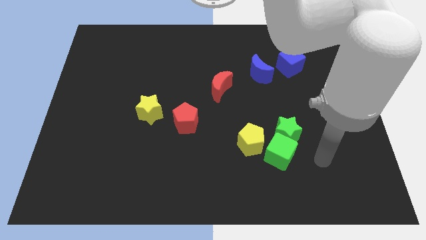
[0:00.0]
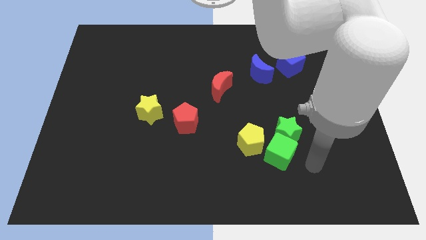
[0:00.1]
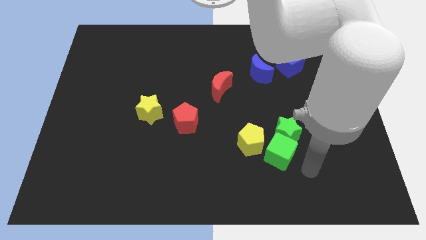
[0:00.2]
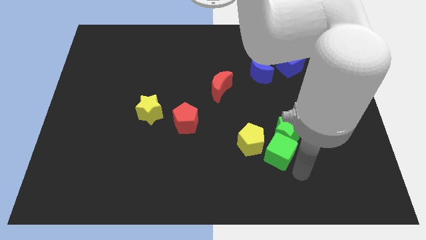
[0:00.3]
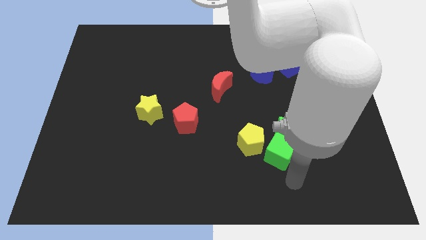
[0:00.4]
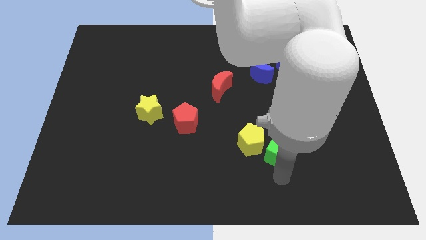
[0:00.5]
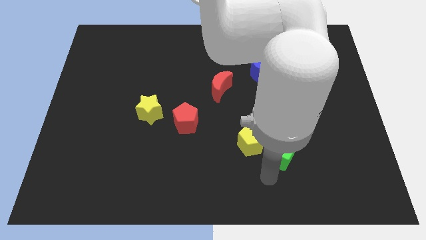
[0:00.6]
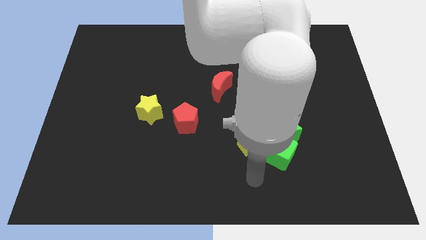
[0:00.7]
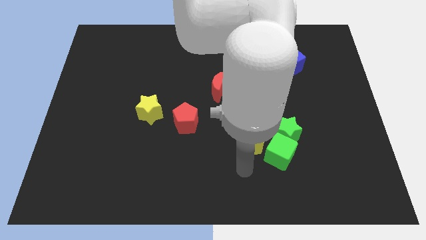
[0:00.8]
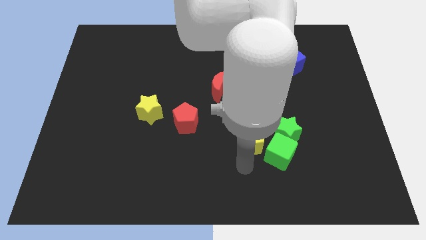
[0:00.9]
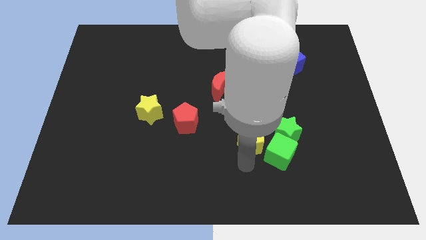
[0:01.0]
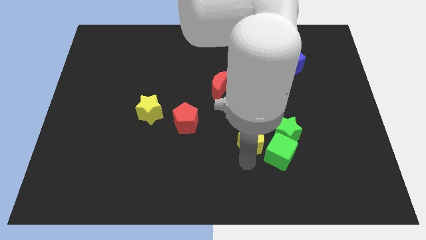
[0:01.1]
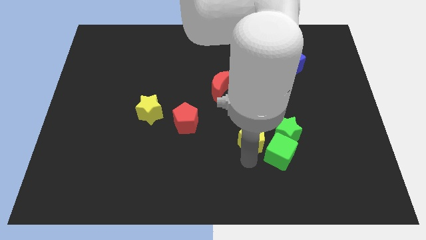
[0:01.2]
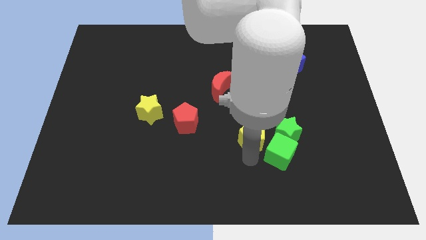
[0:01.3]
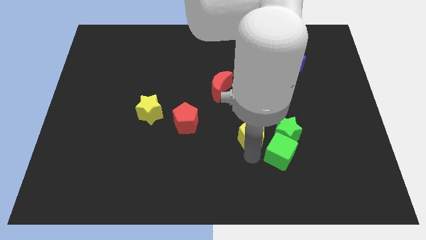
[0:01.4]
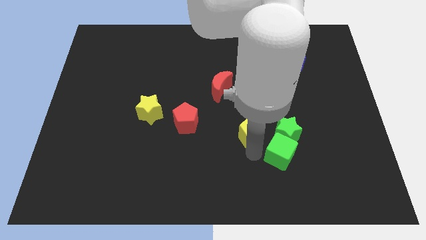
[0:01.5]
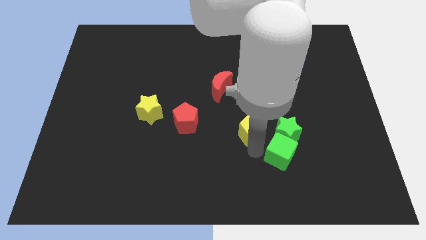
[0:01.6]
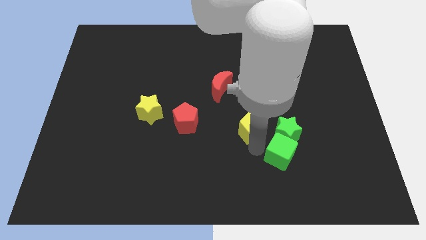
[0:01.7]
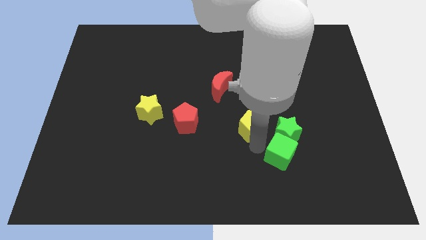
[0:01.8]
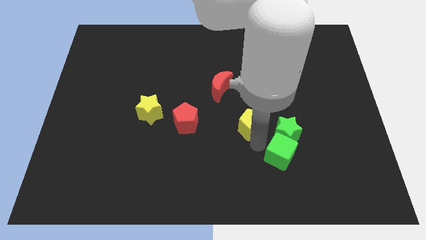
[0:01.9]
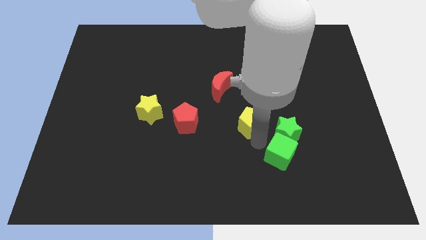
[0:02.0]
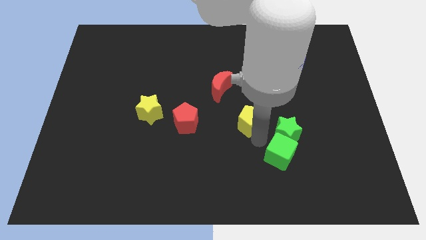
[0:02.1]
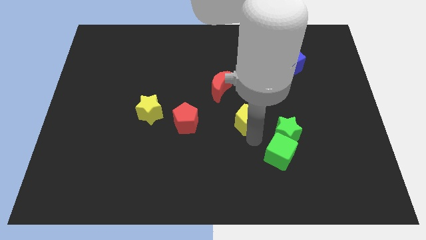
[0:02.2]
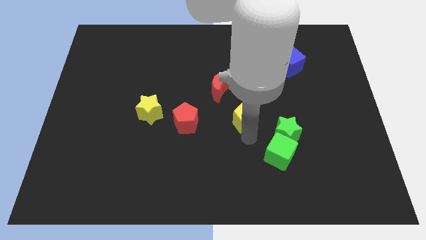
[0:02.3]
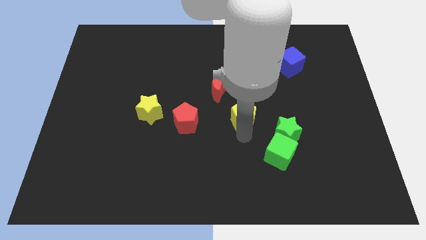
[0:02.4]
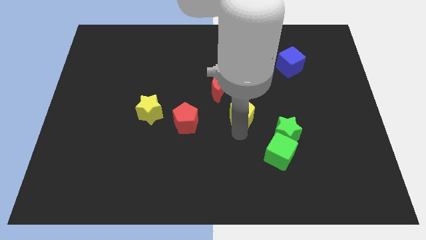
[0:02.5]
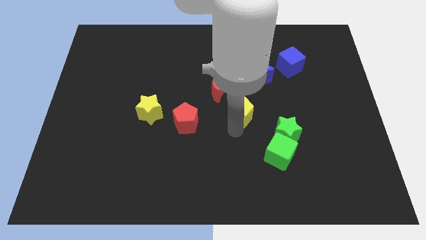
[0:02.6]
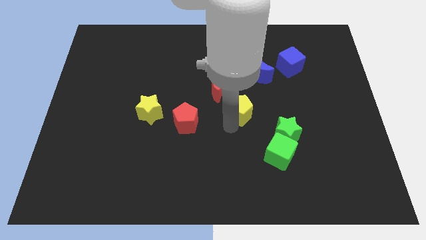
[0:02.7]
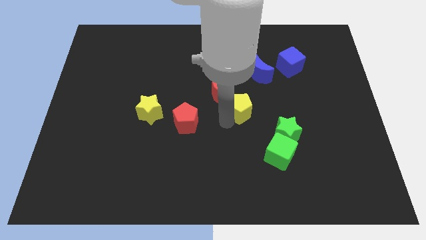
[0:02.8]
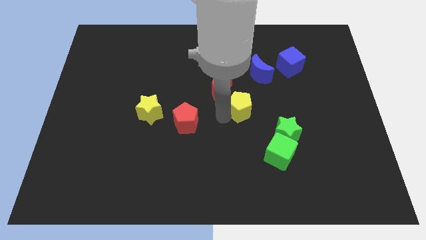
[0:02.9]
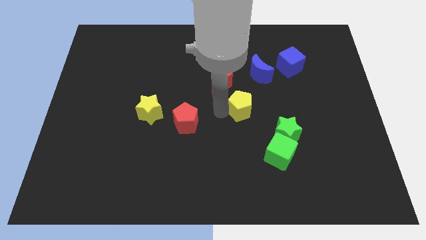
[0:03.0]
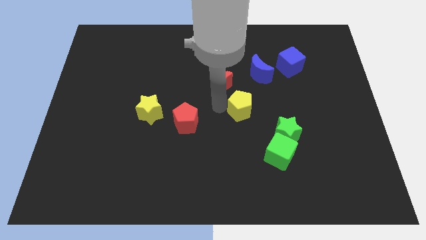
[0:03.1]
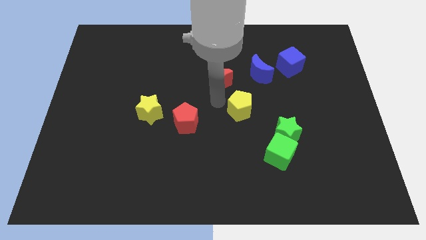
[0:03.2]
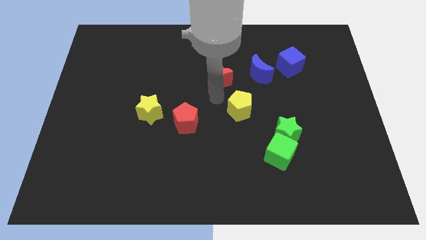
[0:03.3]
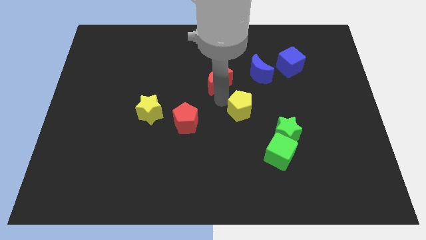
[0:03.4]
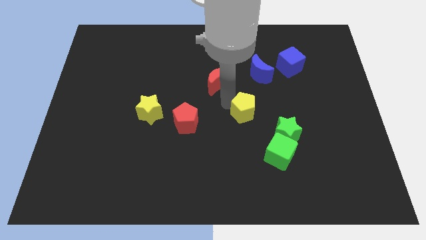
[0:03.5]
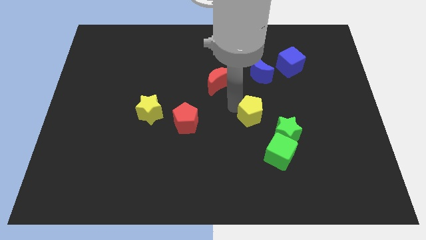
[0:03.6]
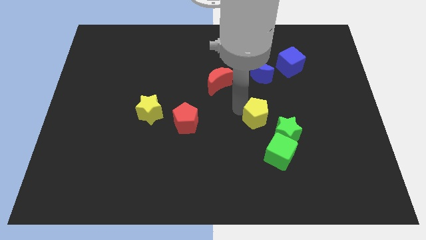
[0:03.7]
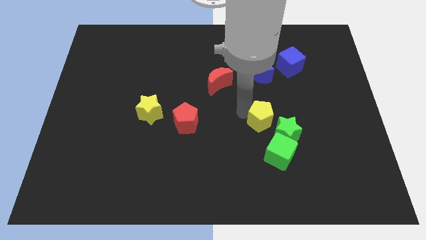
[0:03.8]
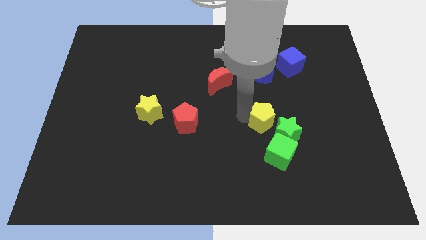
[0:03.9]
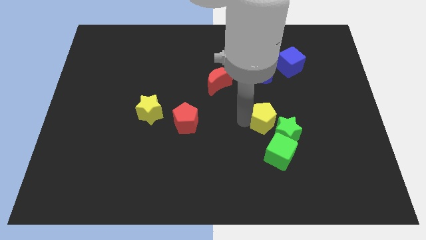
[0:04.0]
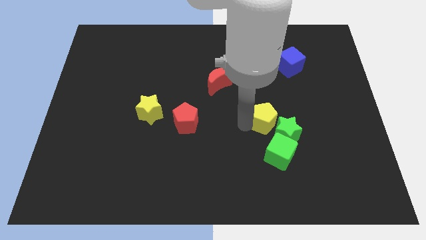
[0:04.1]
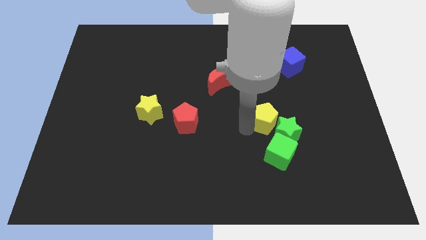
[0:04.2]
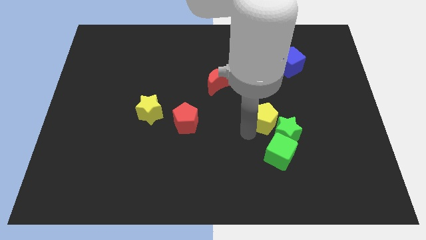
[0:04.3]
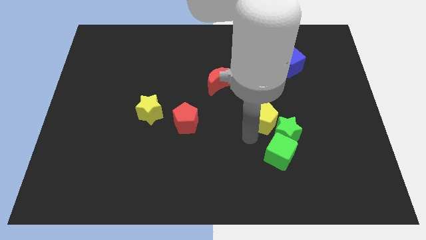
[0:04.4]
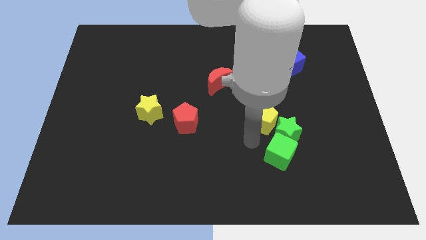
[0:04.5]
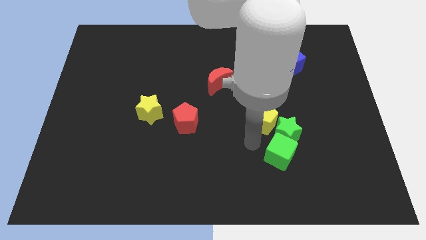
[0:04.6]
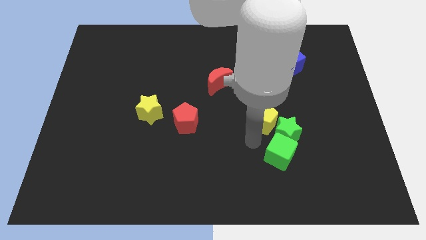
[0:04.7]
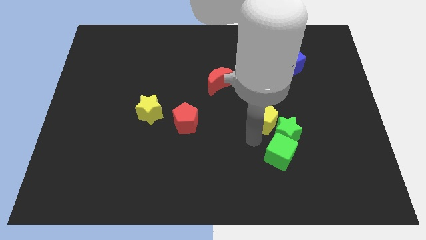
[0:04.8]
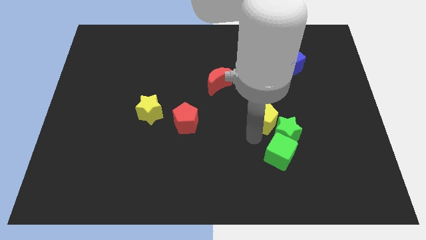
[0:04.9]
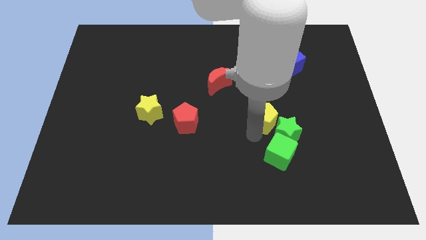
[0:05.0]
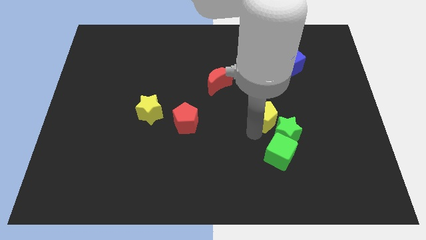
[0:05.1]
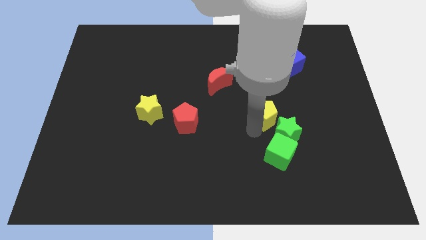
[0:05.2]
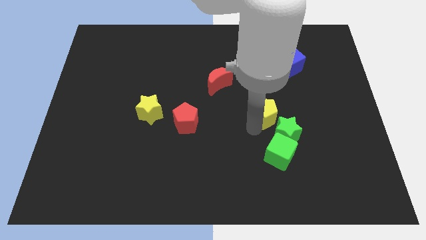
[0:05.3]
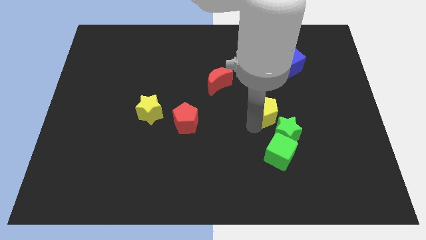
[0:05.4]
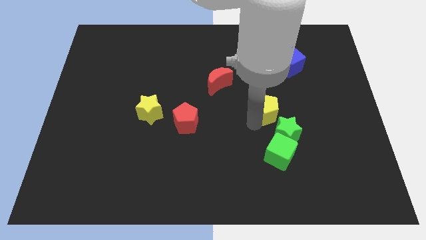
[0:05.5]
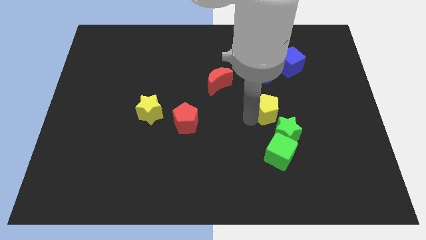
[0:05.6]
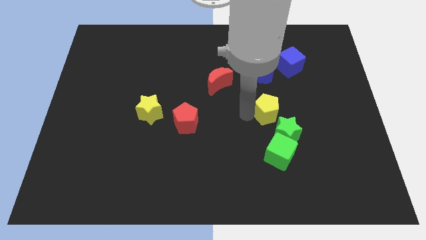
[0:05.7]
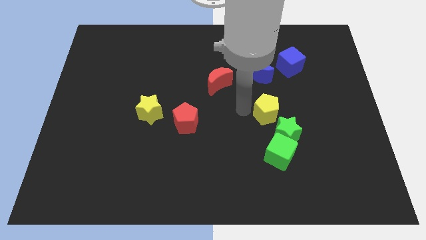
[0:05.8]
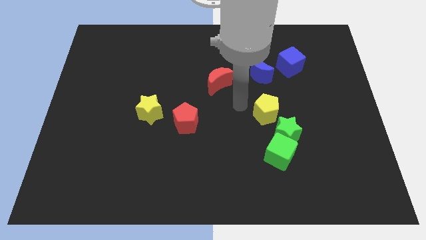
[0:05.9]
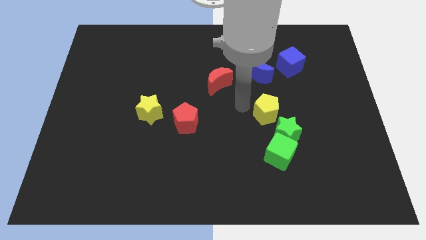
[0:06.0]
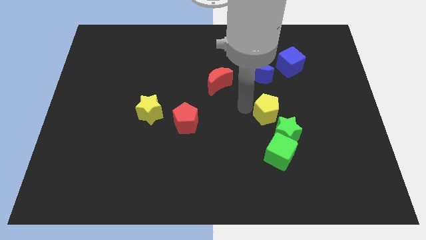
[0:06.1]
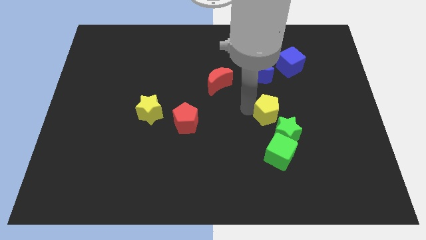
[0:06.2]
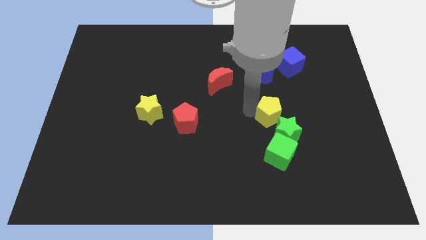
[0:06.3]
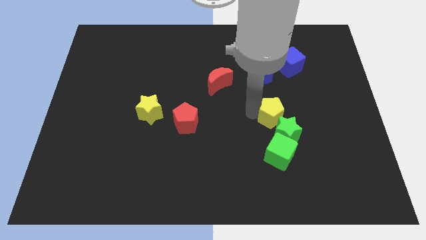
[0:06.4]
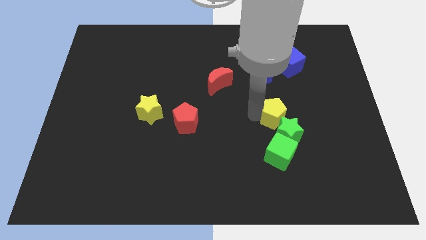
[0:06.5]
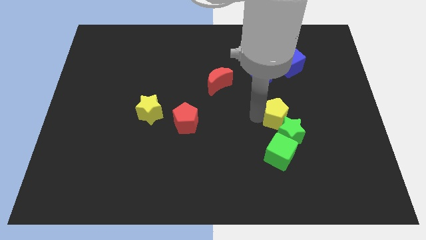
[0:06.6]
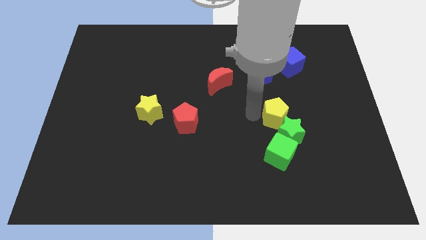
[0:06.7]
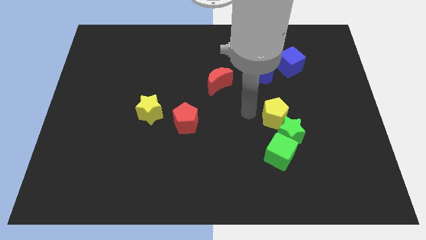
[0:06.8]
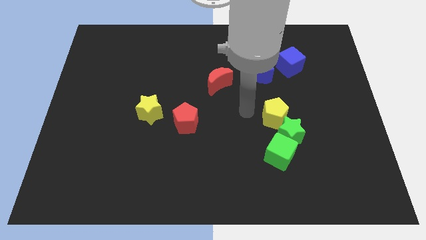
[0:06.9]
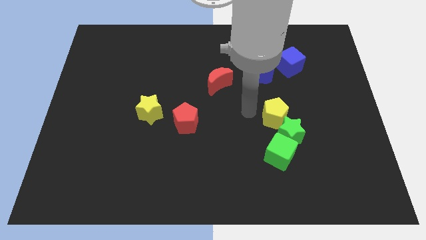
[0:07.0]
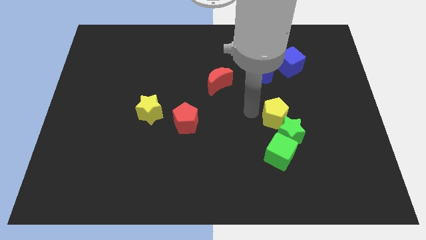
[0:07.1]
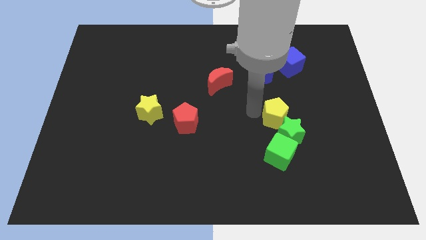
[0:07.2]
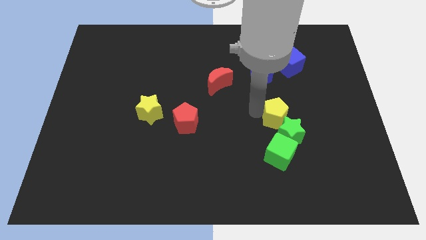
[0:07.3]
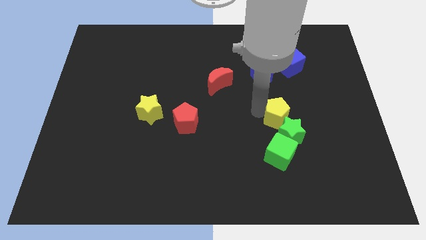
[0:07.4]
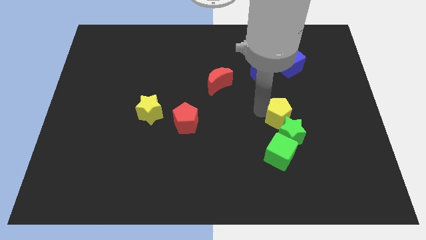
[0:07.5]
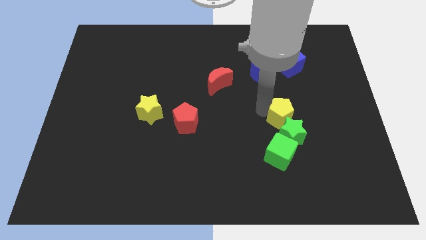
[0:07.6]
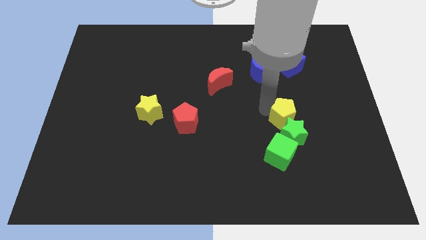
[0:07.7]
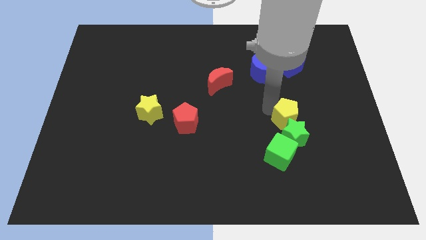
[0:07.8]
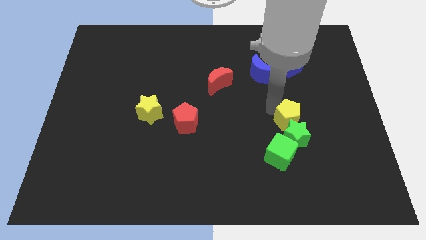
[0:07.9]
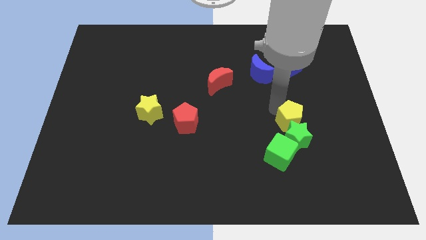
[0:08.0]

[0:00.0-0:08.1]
move the yellow pentagon diagonally up and to the right of the green cube
